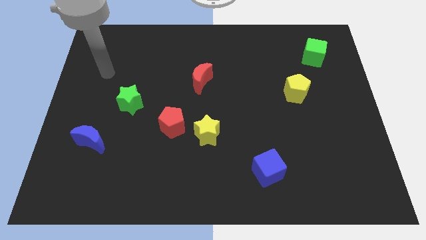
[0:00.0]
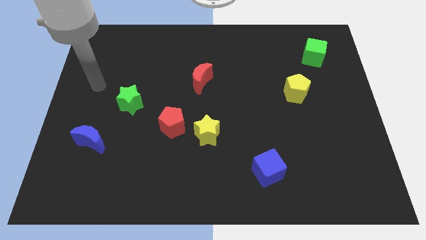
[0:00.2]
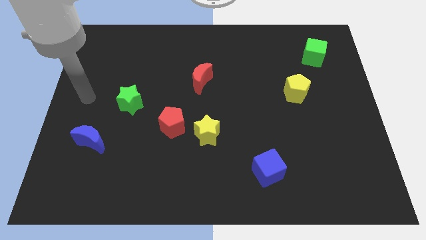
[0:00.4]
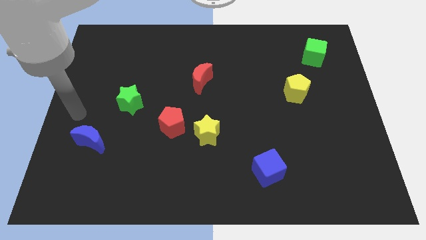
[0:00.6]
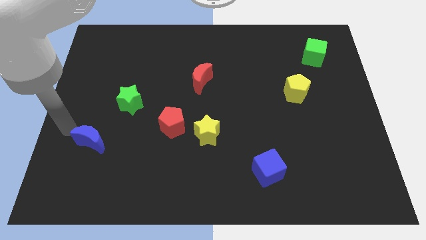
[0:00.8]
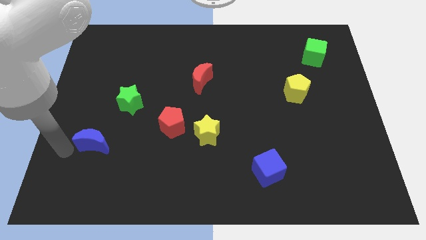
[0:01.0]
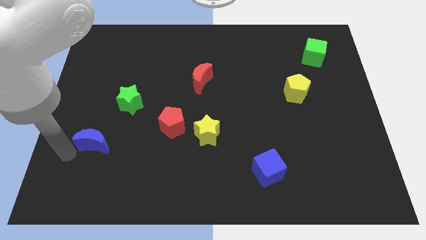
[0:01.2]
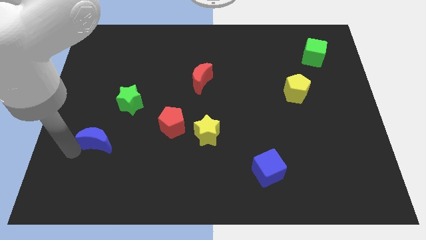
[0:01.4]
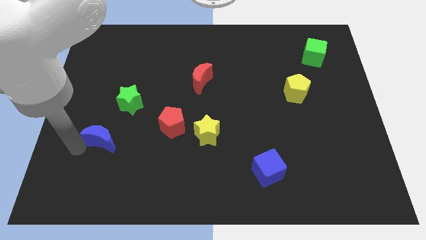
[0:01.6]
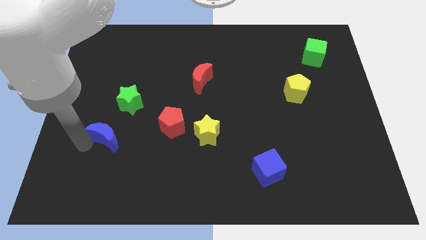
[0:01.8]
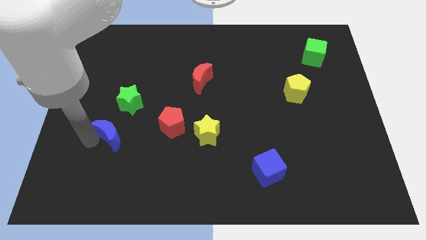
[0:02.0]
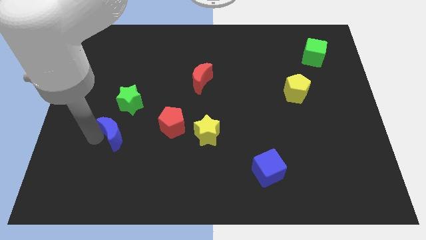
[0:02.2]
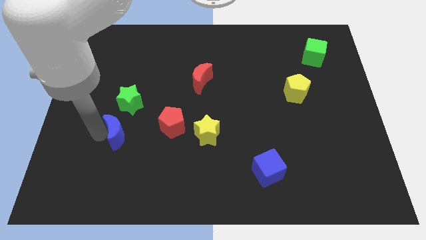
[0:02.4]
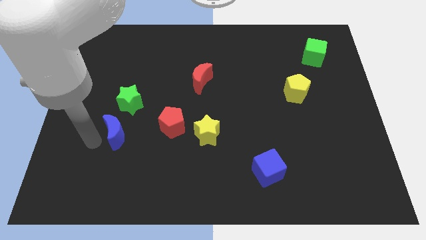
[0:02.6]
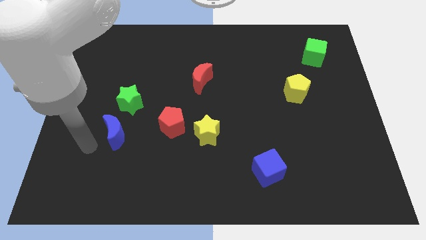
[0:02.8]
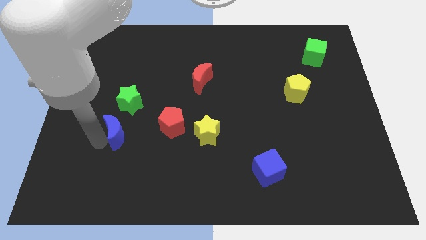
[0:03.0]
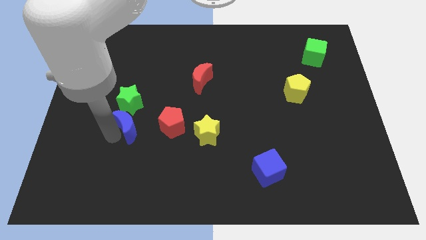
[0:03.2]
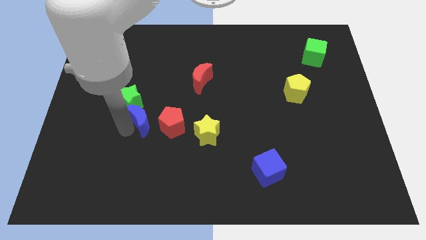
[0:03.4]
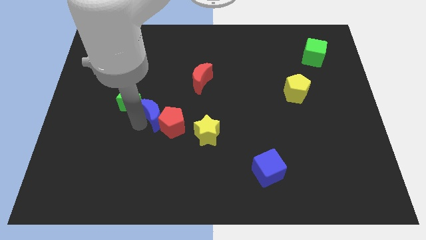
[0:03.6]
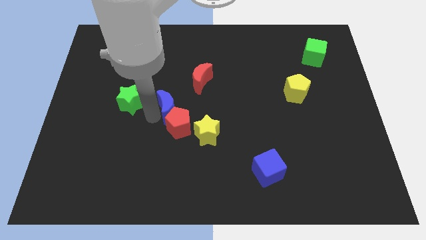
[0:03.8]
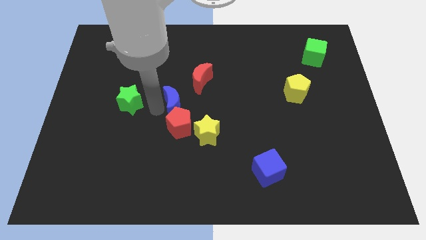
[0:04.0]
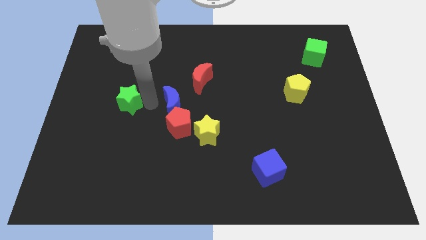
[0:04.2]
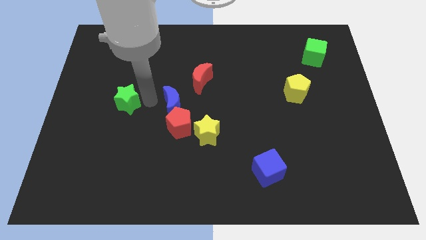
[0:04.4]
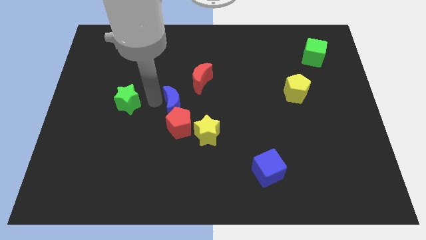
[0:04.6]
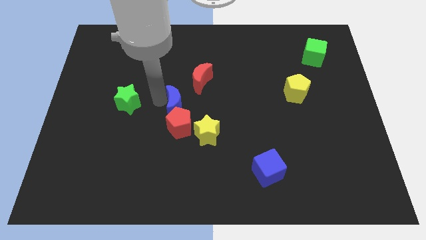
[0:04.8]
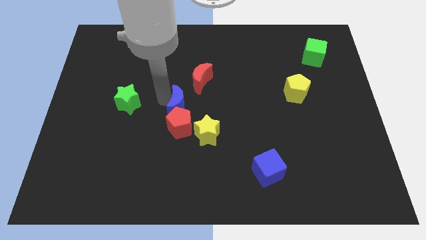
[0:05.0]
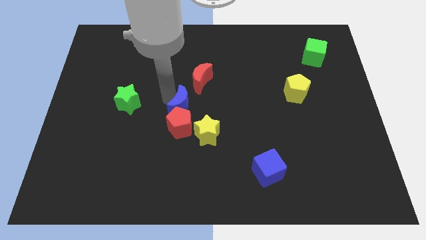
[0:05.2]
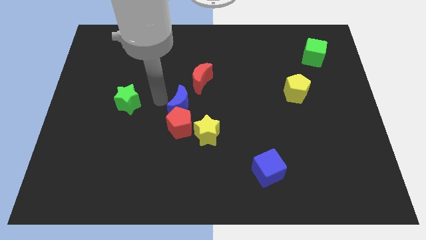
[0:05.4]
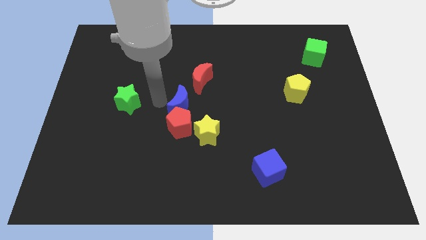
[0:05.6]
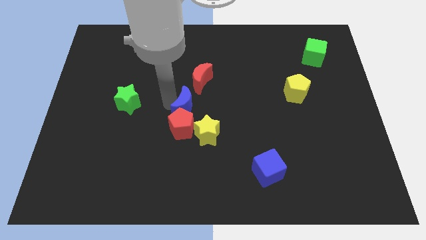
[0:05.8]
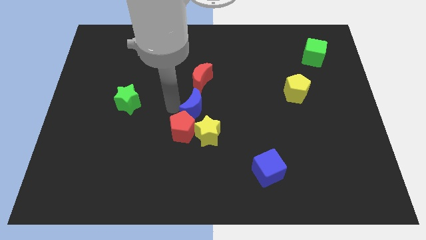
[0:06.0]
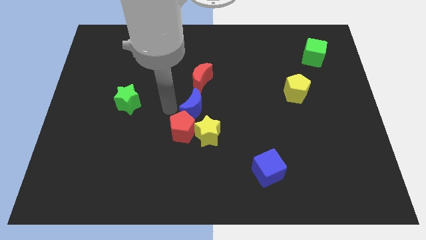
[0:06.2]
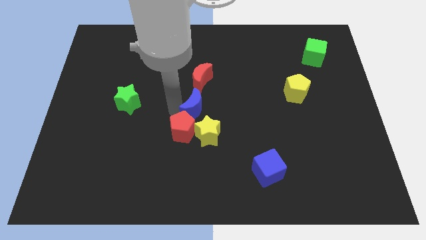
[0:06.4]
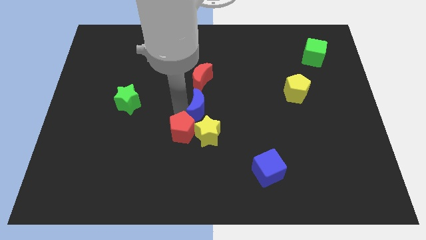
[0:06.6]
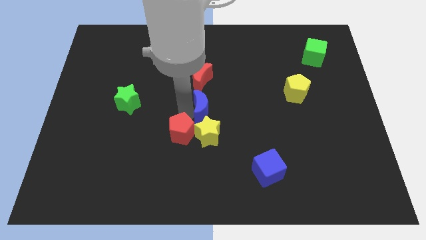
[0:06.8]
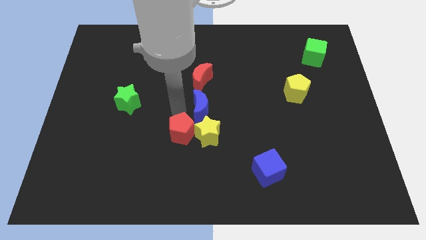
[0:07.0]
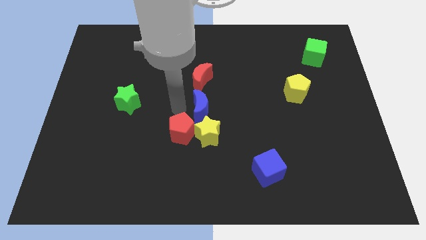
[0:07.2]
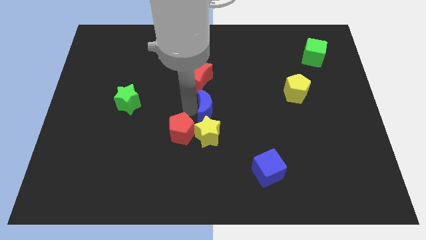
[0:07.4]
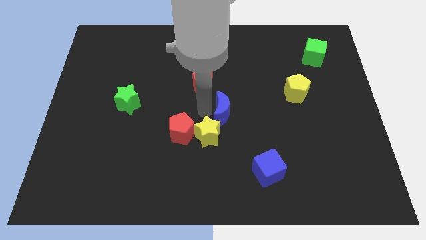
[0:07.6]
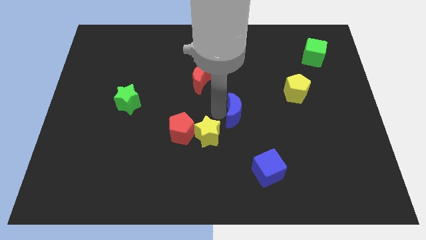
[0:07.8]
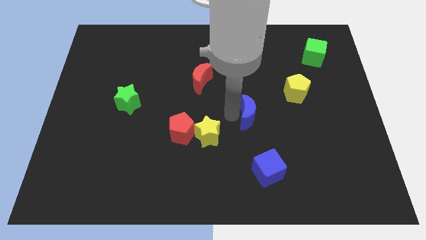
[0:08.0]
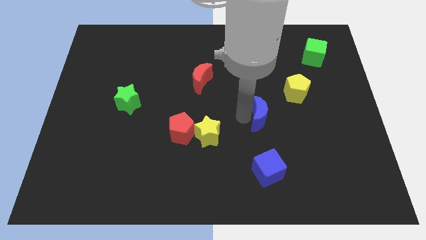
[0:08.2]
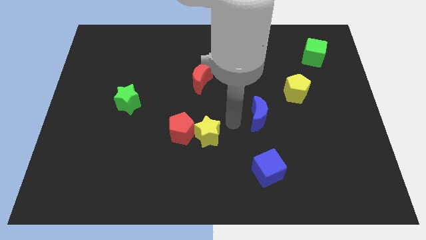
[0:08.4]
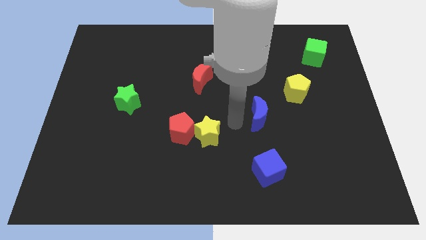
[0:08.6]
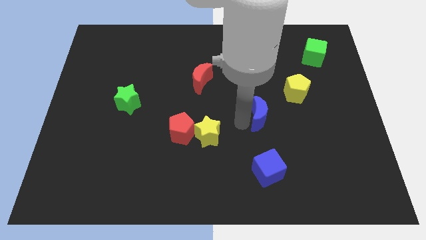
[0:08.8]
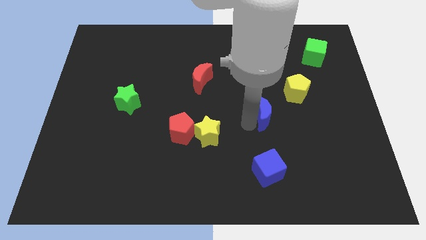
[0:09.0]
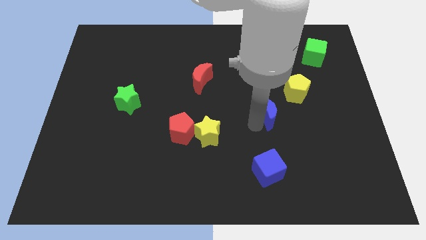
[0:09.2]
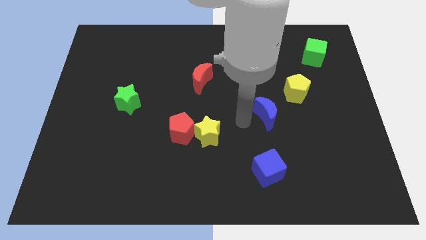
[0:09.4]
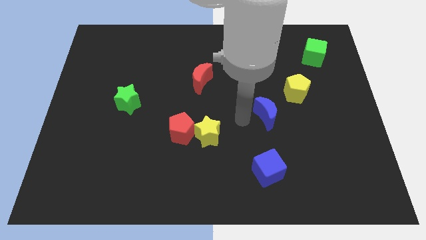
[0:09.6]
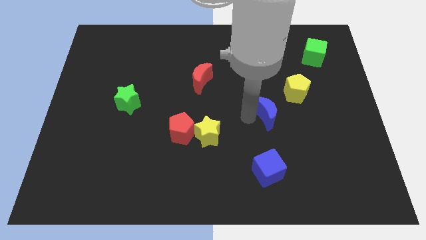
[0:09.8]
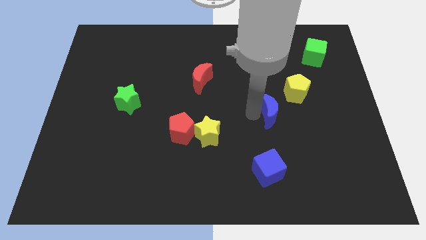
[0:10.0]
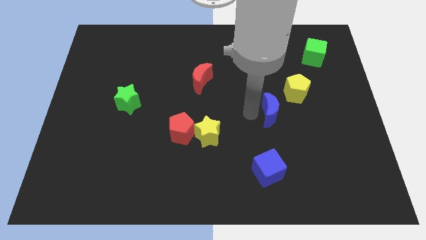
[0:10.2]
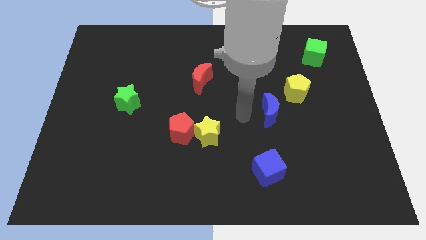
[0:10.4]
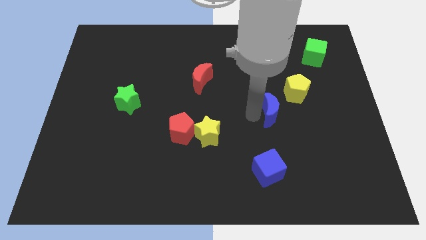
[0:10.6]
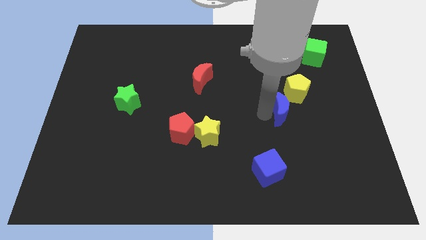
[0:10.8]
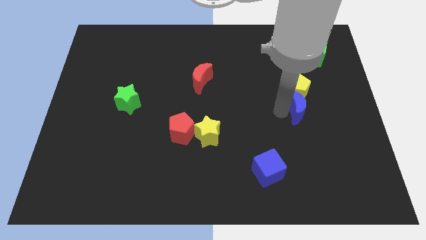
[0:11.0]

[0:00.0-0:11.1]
push the blue moon to the bottom right side of the yellow pentagon
